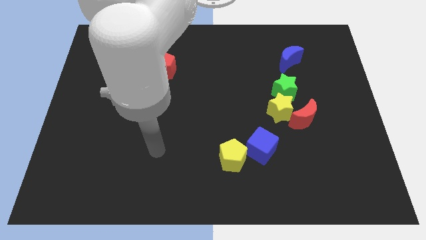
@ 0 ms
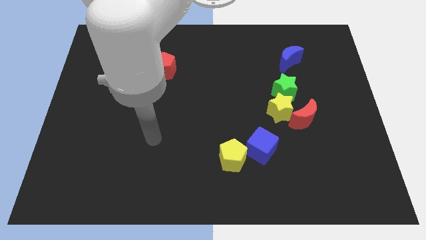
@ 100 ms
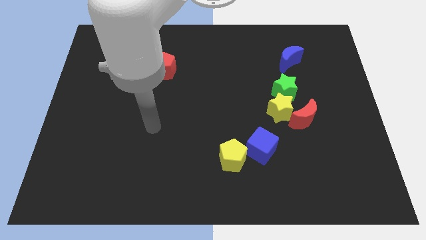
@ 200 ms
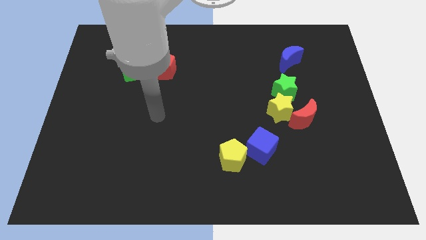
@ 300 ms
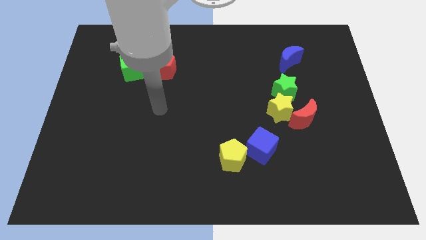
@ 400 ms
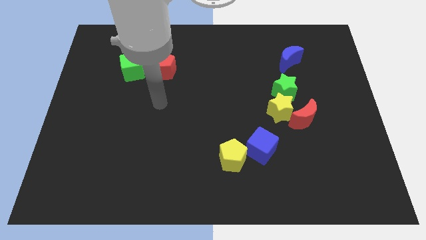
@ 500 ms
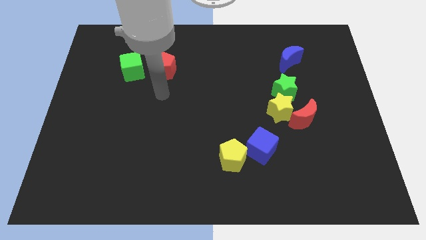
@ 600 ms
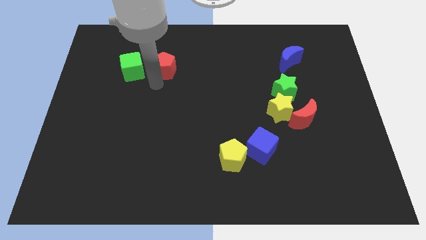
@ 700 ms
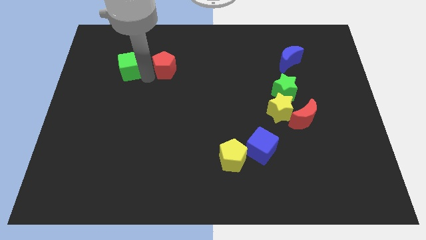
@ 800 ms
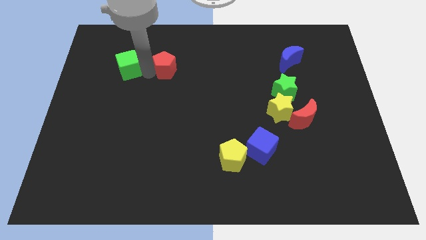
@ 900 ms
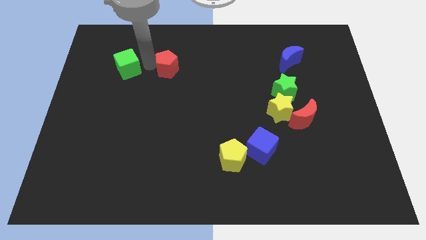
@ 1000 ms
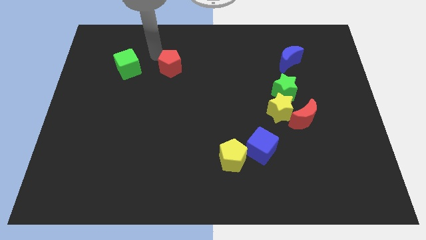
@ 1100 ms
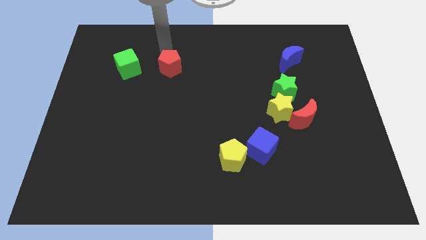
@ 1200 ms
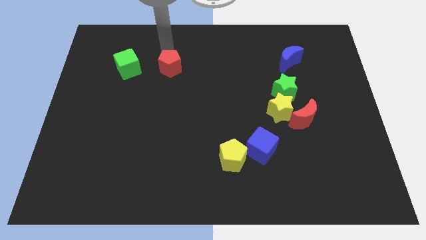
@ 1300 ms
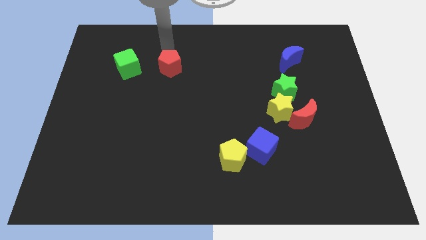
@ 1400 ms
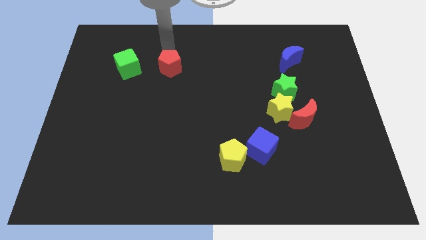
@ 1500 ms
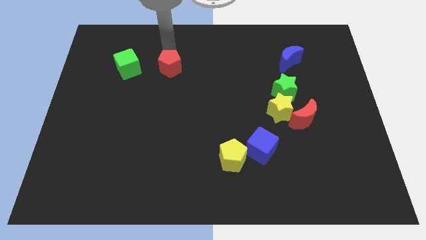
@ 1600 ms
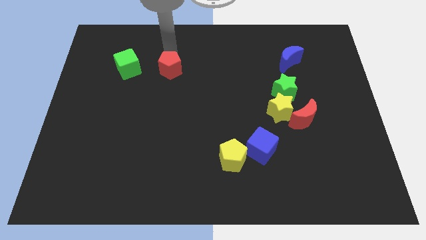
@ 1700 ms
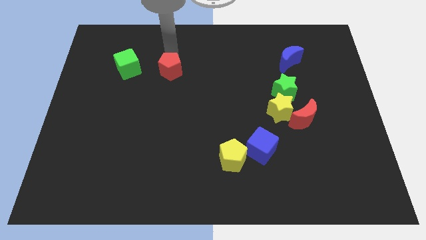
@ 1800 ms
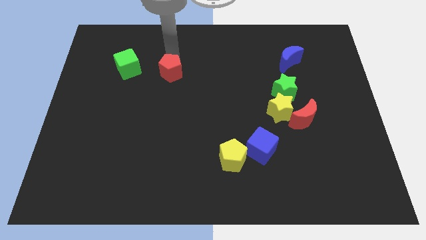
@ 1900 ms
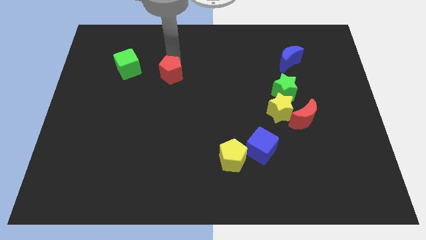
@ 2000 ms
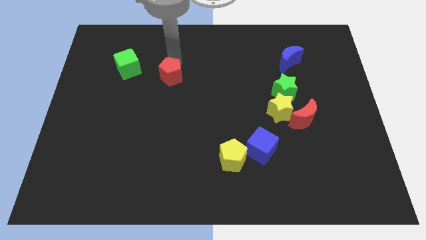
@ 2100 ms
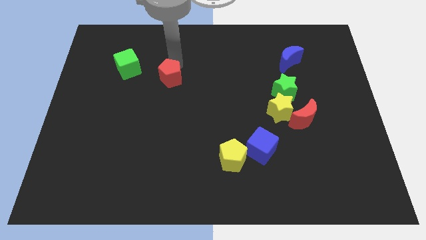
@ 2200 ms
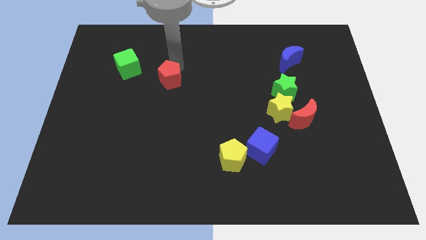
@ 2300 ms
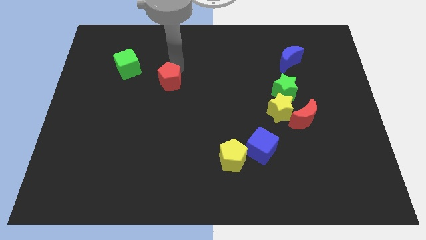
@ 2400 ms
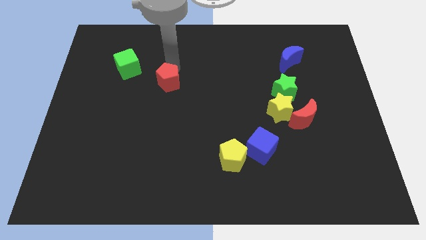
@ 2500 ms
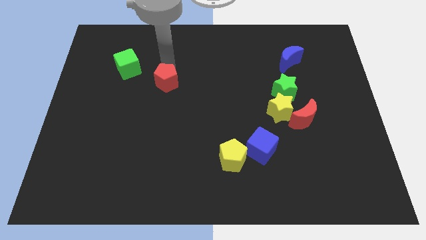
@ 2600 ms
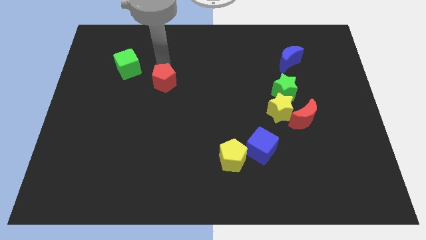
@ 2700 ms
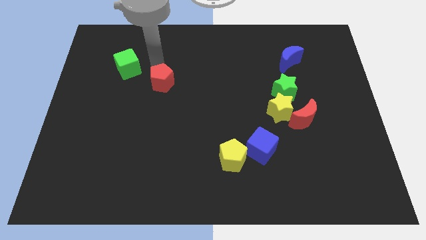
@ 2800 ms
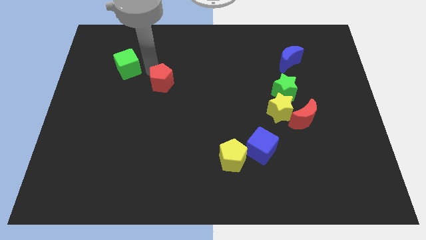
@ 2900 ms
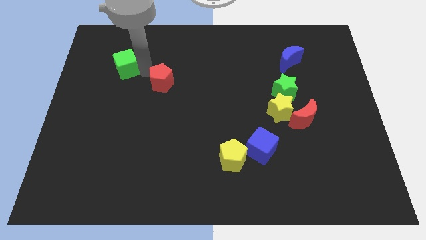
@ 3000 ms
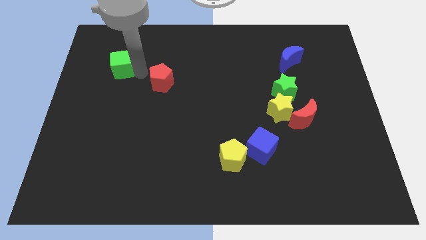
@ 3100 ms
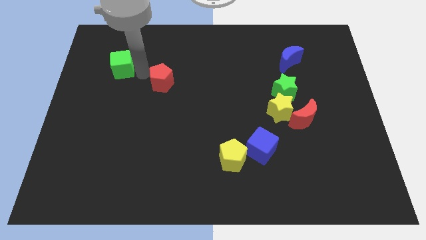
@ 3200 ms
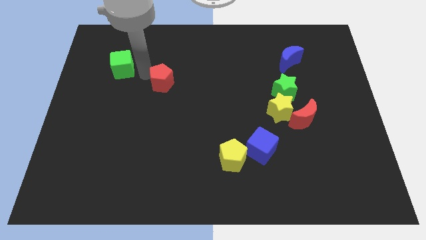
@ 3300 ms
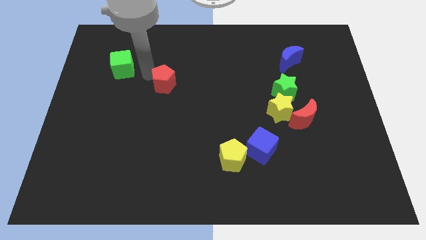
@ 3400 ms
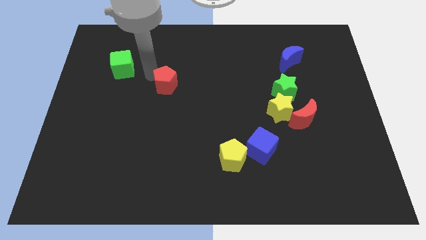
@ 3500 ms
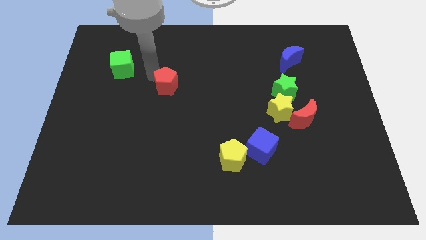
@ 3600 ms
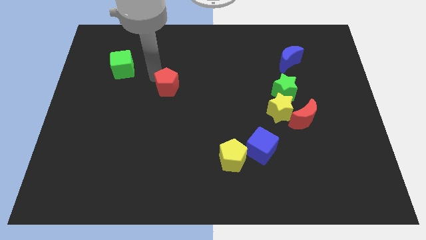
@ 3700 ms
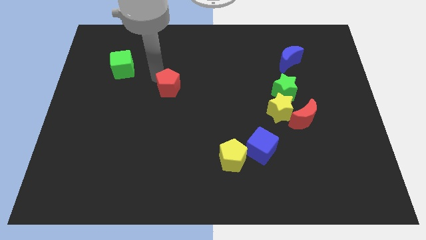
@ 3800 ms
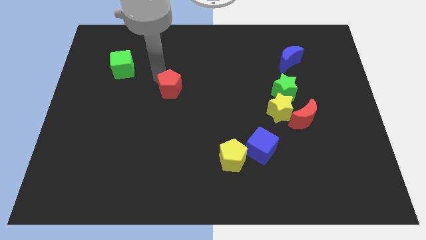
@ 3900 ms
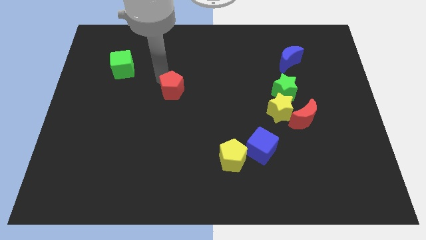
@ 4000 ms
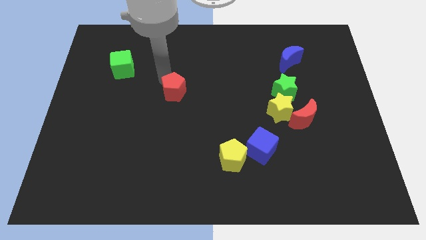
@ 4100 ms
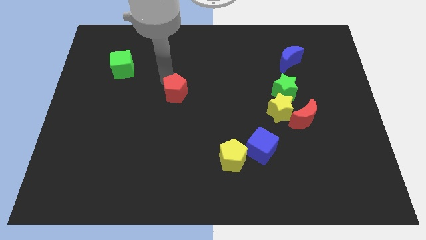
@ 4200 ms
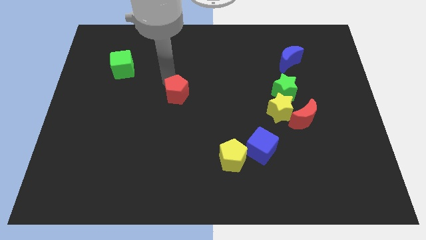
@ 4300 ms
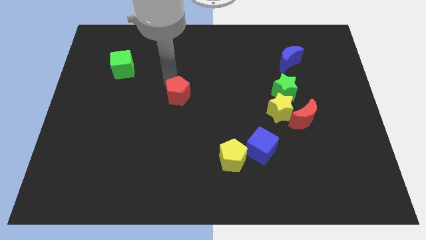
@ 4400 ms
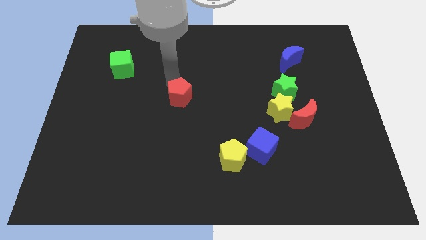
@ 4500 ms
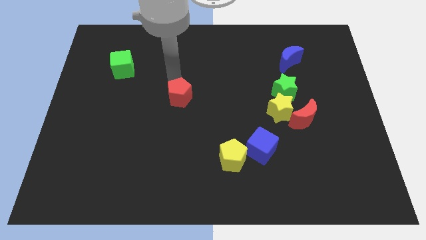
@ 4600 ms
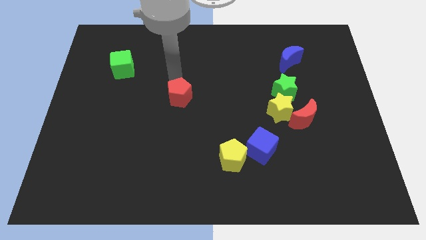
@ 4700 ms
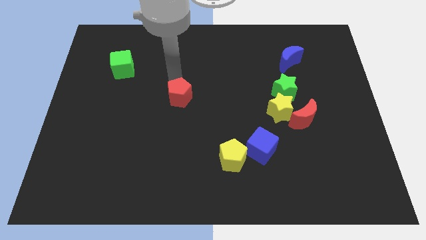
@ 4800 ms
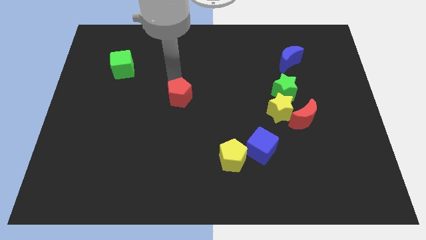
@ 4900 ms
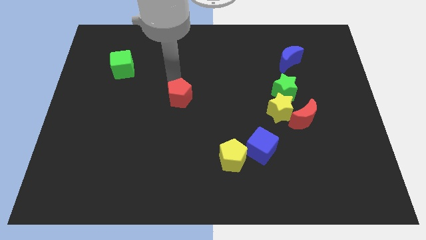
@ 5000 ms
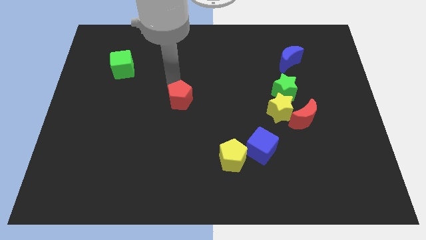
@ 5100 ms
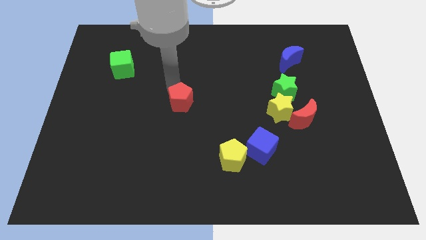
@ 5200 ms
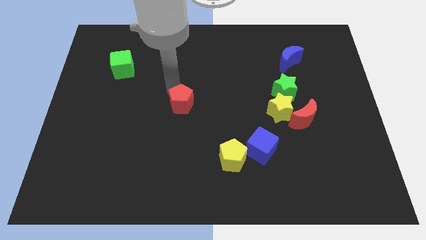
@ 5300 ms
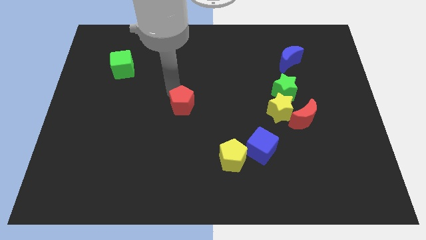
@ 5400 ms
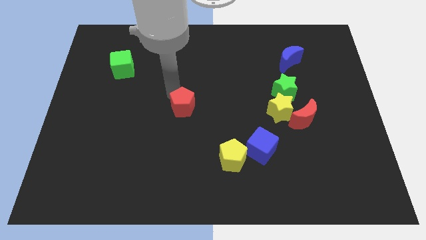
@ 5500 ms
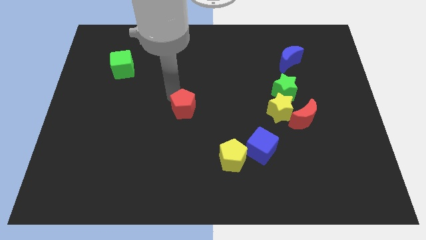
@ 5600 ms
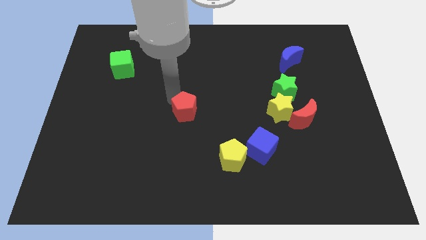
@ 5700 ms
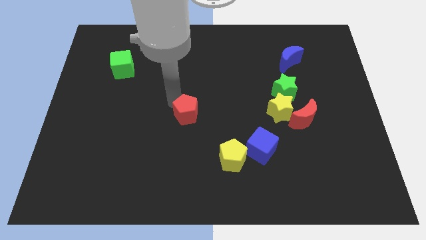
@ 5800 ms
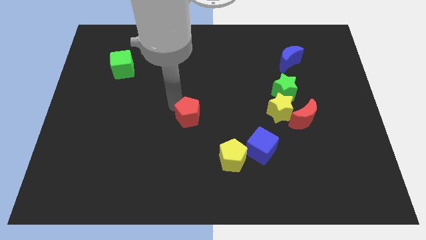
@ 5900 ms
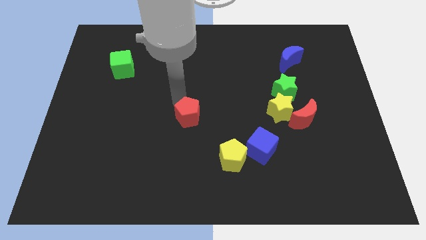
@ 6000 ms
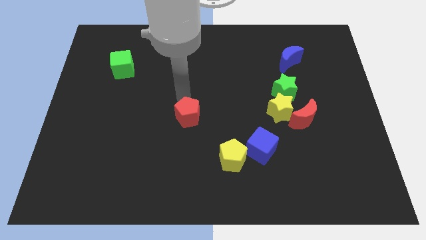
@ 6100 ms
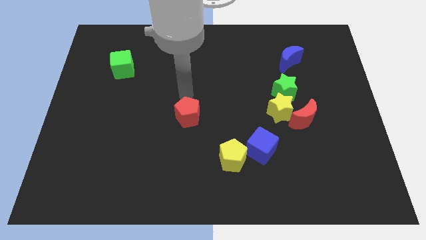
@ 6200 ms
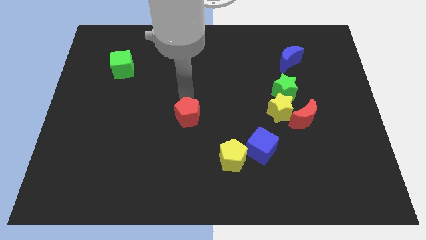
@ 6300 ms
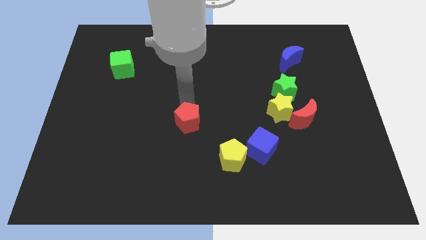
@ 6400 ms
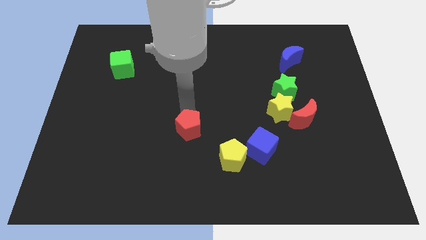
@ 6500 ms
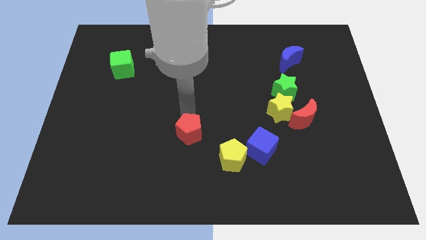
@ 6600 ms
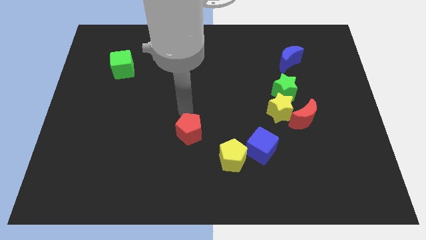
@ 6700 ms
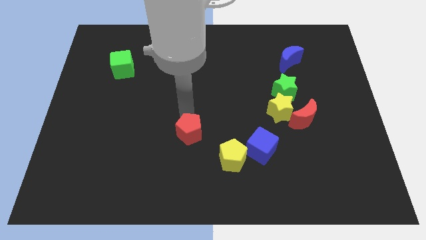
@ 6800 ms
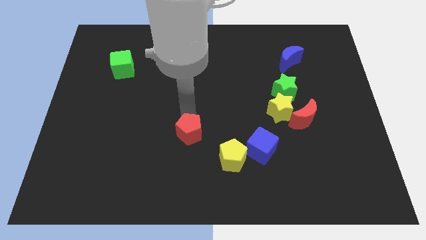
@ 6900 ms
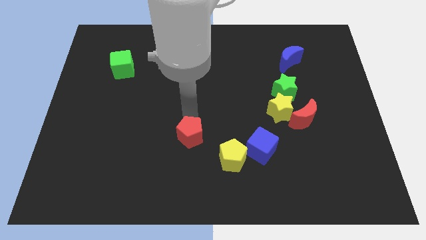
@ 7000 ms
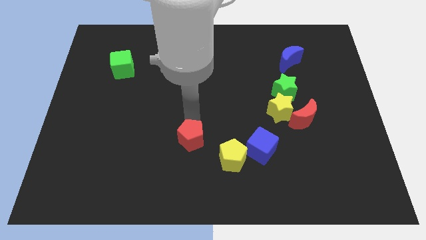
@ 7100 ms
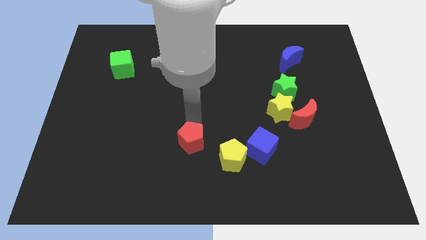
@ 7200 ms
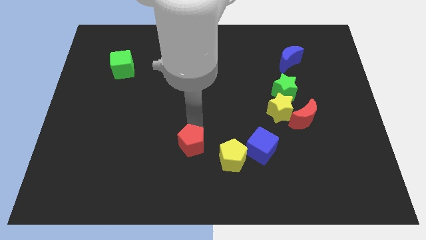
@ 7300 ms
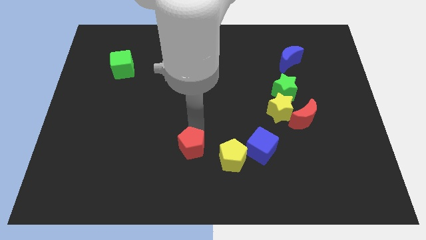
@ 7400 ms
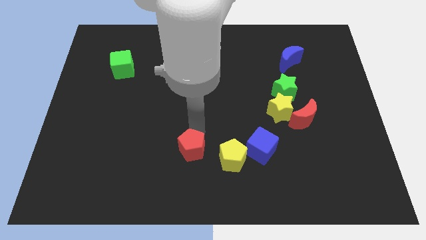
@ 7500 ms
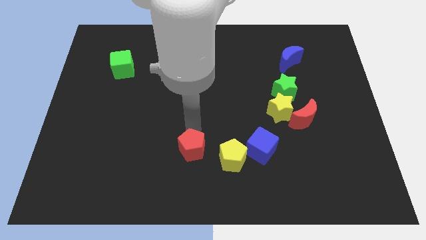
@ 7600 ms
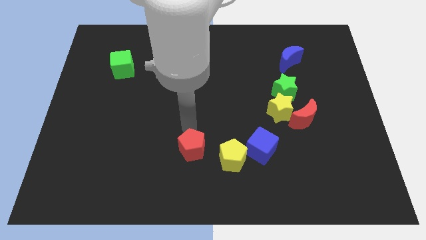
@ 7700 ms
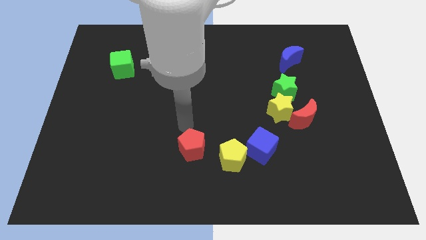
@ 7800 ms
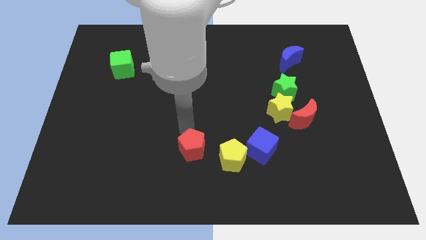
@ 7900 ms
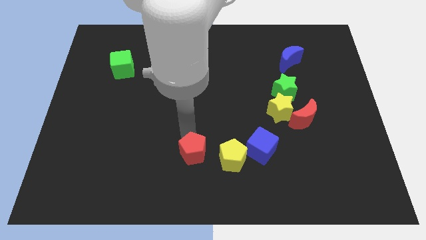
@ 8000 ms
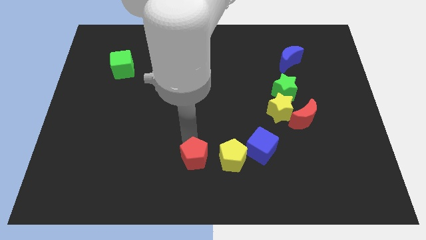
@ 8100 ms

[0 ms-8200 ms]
slide the red pentagon to the bottom side
